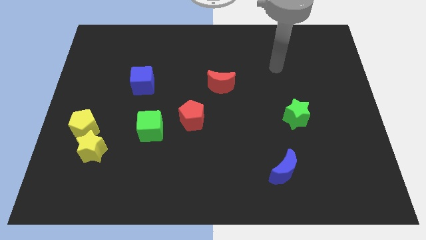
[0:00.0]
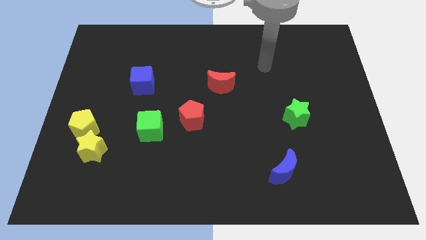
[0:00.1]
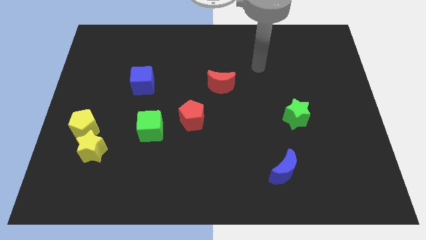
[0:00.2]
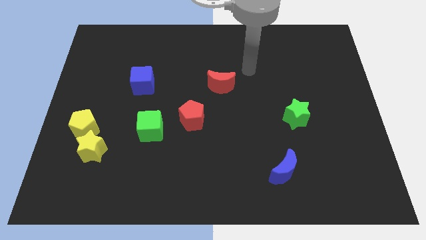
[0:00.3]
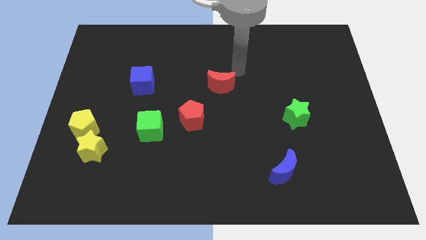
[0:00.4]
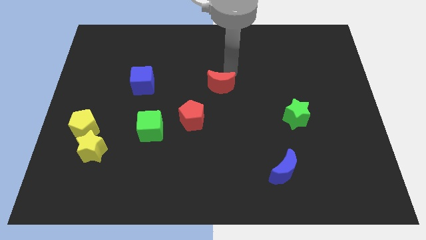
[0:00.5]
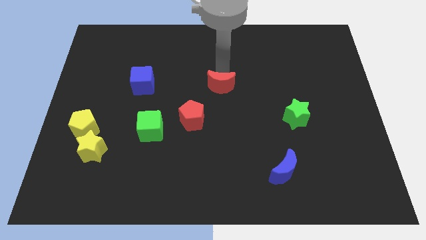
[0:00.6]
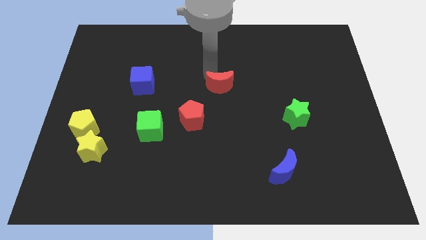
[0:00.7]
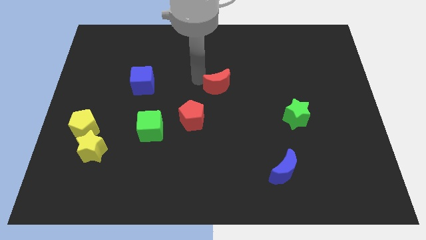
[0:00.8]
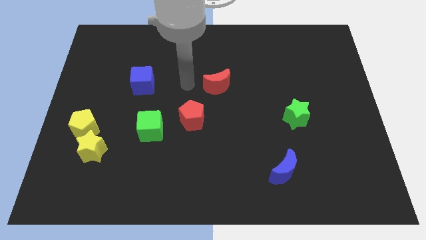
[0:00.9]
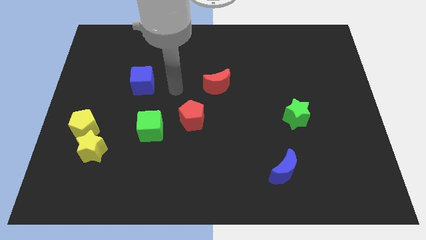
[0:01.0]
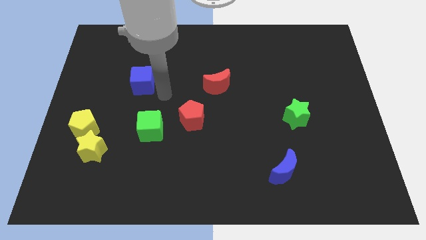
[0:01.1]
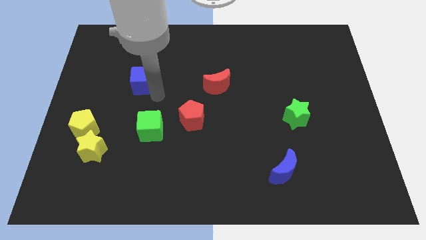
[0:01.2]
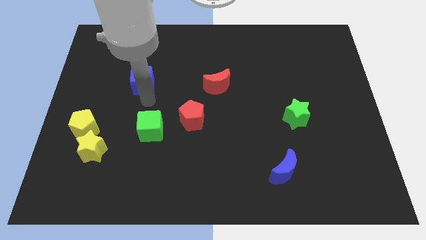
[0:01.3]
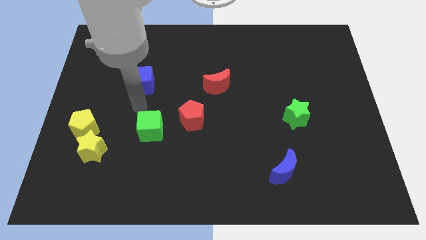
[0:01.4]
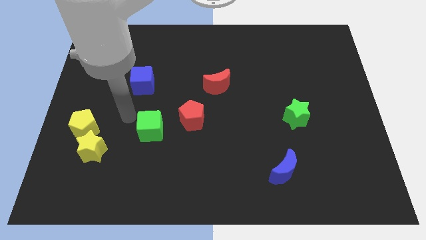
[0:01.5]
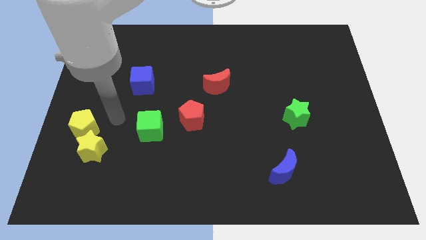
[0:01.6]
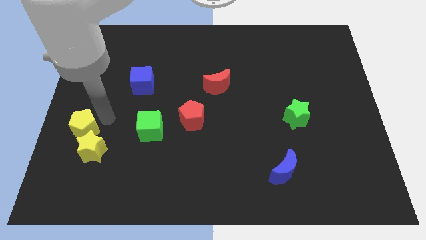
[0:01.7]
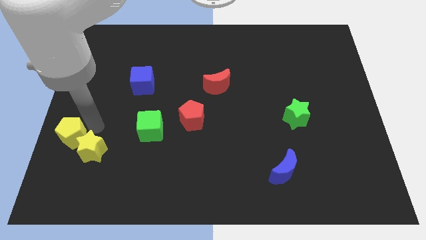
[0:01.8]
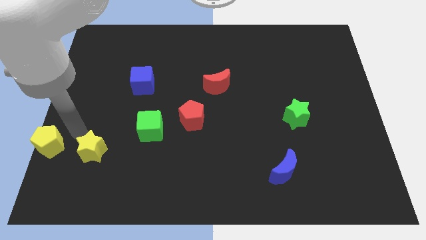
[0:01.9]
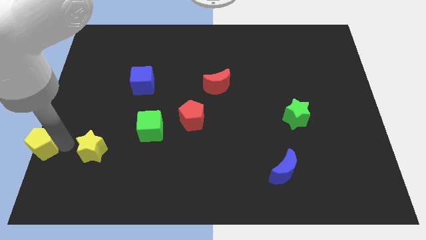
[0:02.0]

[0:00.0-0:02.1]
separate the yellow star from the yellow pentagon

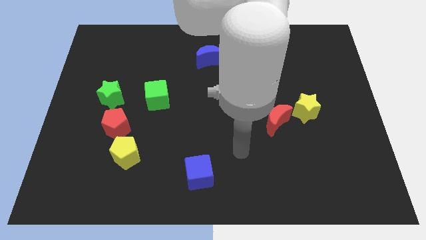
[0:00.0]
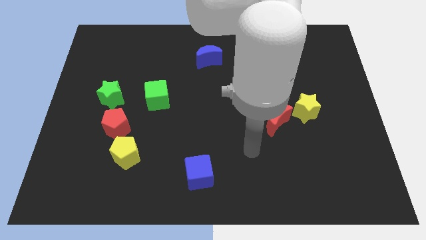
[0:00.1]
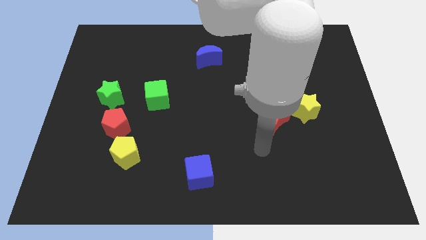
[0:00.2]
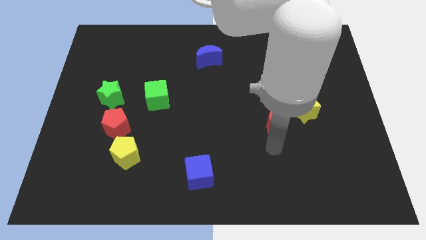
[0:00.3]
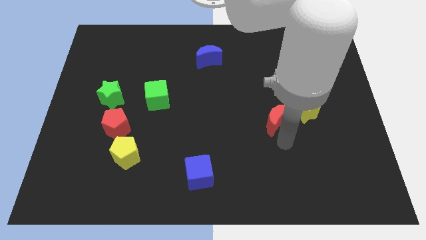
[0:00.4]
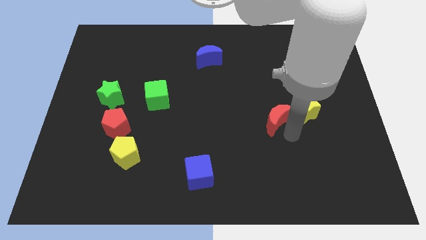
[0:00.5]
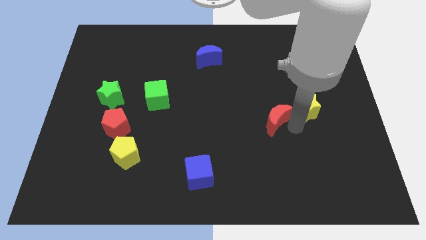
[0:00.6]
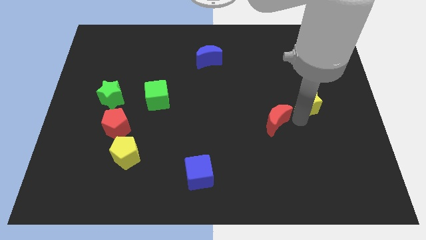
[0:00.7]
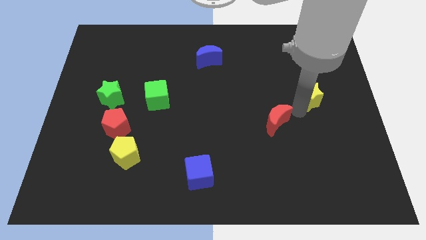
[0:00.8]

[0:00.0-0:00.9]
move the red moon away from the yellow star

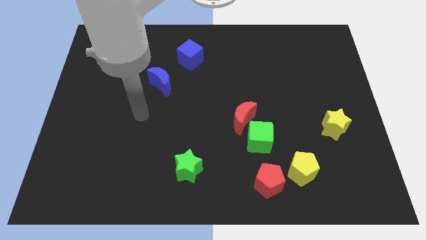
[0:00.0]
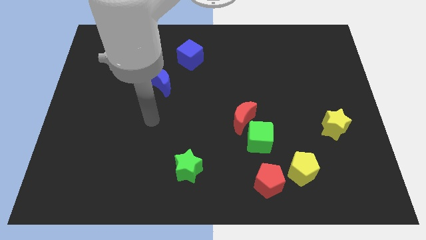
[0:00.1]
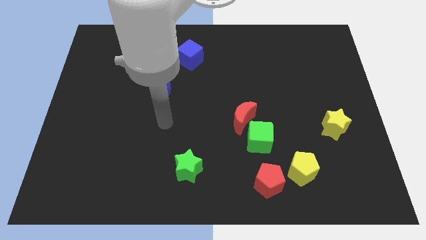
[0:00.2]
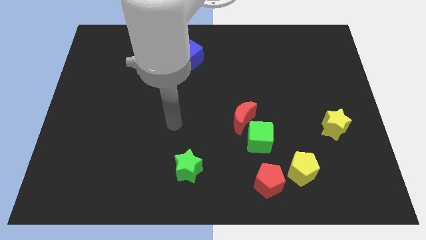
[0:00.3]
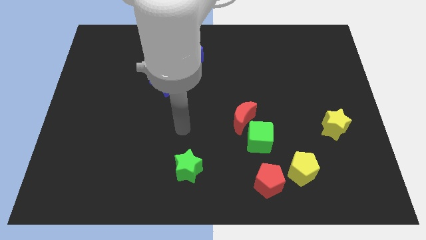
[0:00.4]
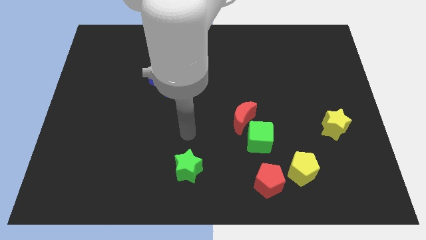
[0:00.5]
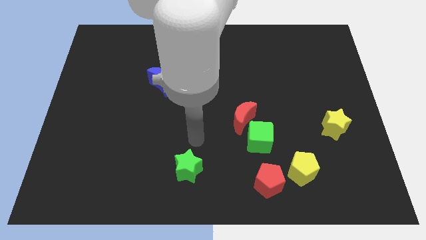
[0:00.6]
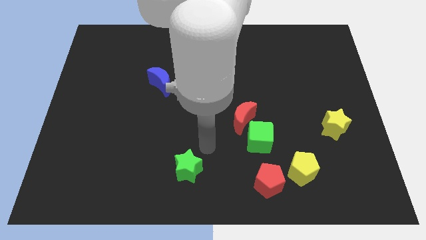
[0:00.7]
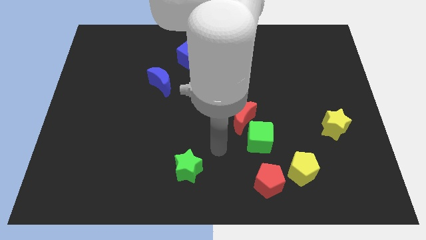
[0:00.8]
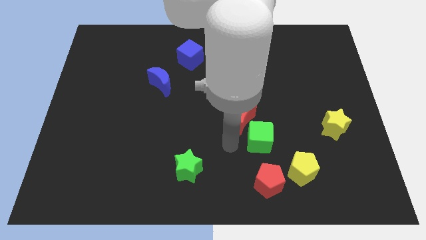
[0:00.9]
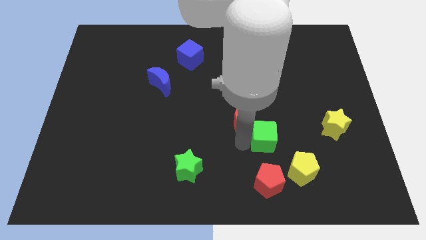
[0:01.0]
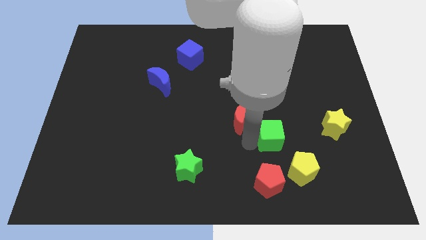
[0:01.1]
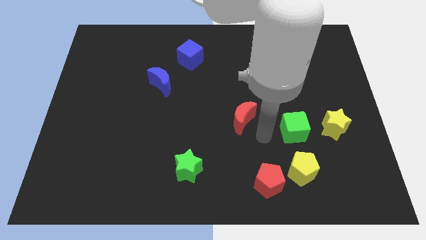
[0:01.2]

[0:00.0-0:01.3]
move the red moon away from the green cube

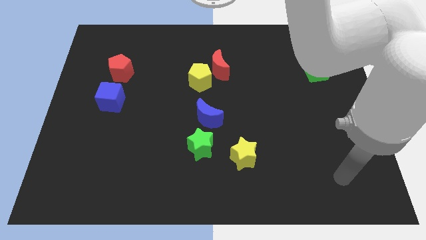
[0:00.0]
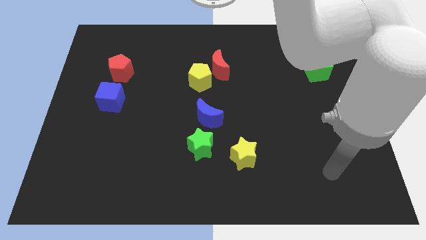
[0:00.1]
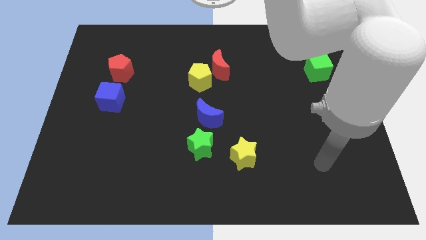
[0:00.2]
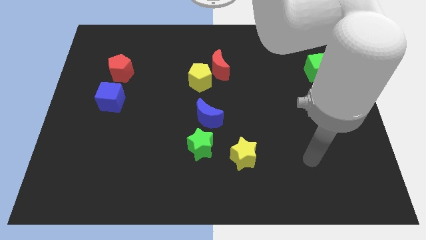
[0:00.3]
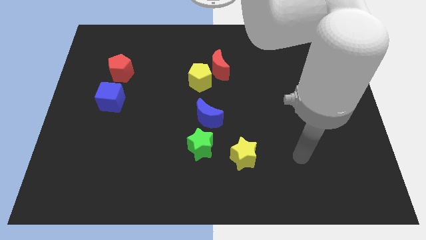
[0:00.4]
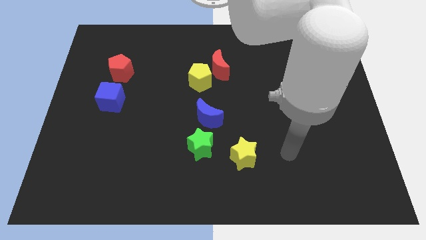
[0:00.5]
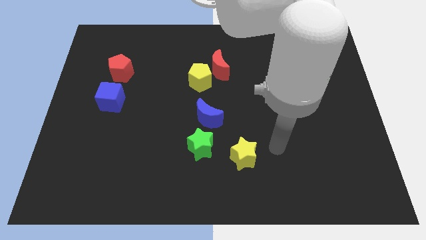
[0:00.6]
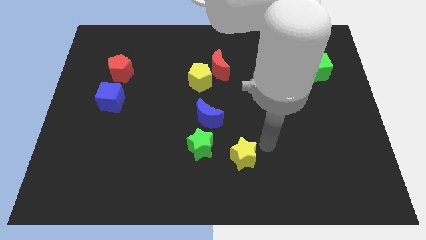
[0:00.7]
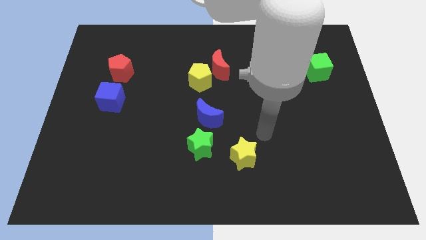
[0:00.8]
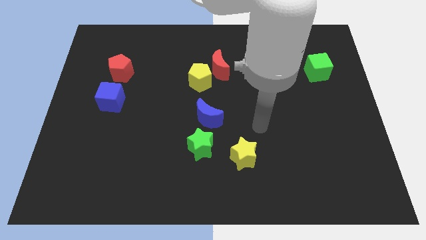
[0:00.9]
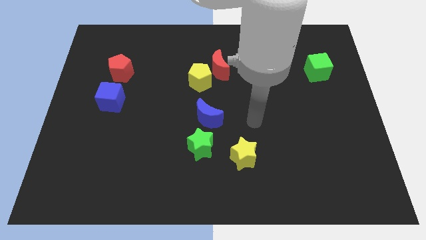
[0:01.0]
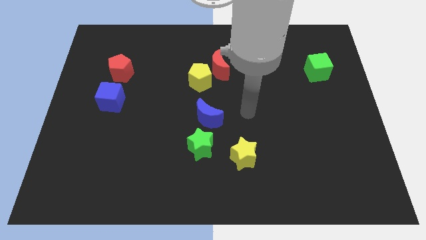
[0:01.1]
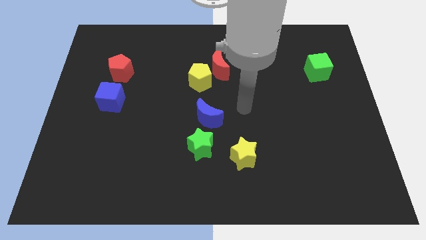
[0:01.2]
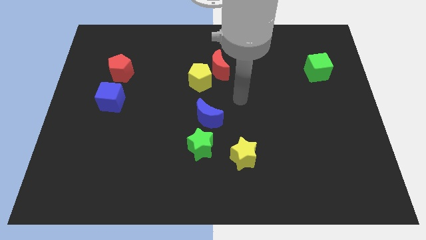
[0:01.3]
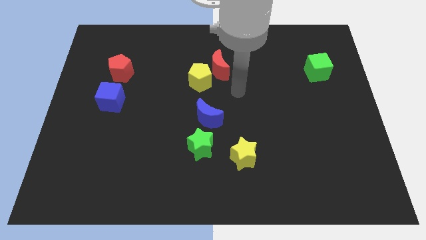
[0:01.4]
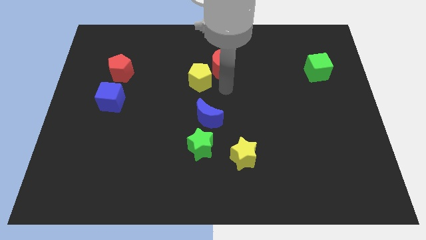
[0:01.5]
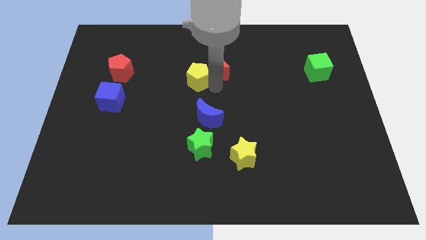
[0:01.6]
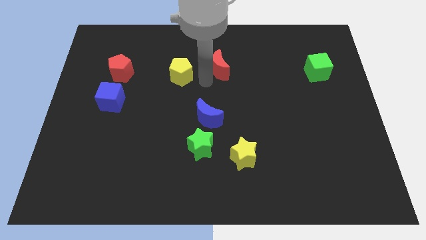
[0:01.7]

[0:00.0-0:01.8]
separate the red moon from the yellow pentagon

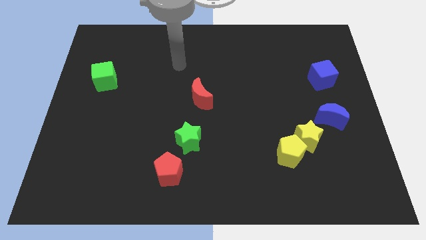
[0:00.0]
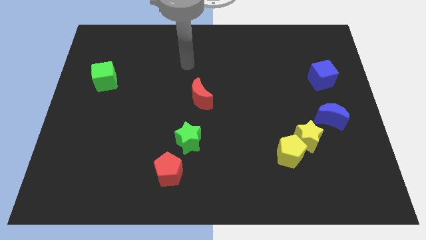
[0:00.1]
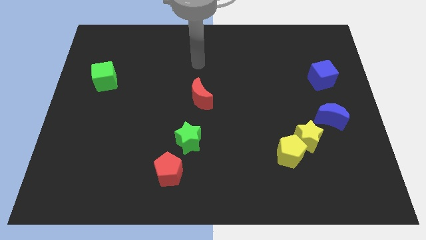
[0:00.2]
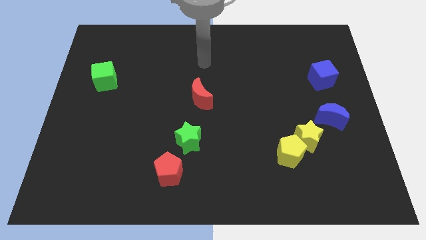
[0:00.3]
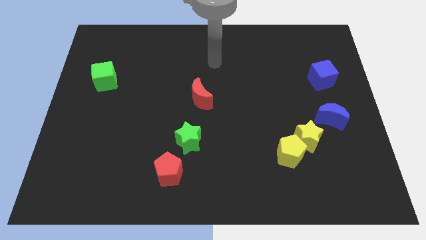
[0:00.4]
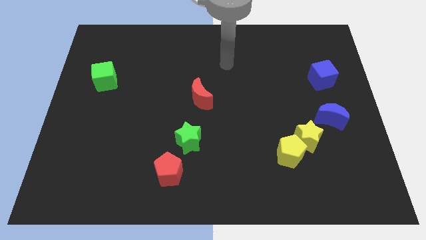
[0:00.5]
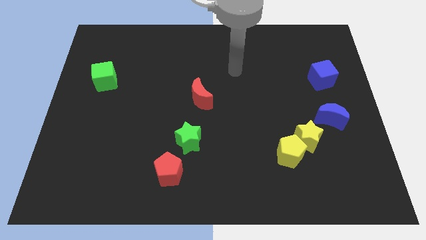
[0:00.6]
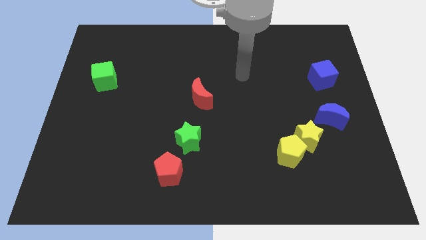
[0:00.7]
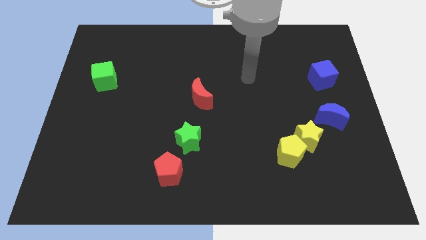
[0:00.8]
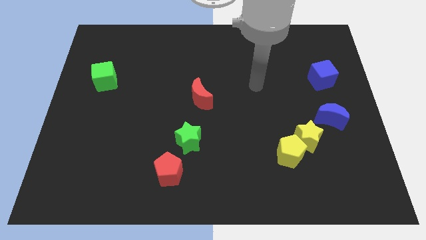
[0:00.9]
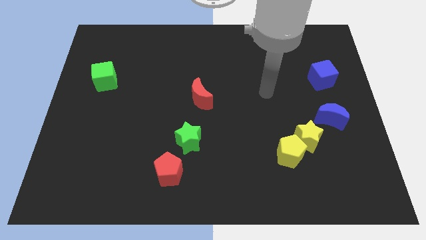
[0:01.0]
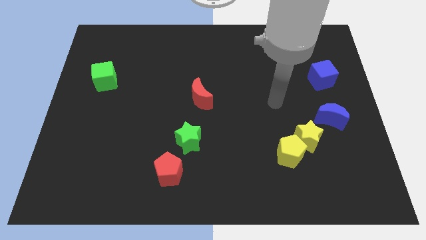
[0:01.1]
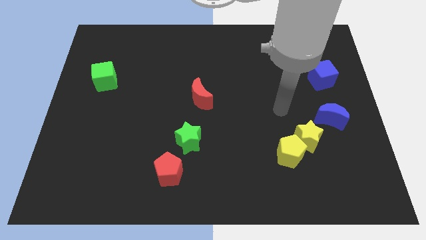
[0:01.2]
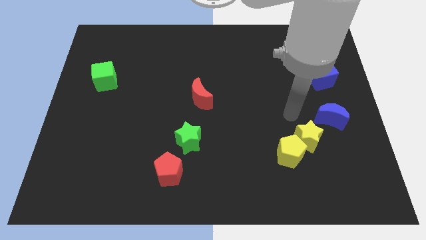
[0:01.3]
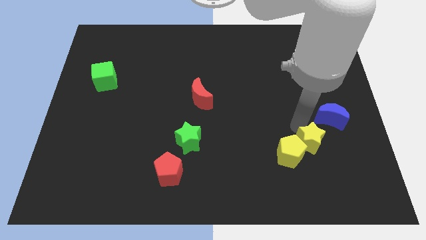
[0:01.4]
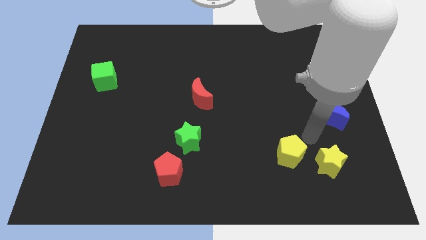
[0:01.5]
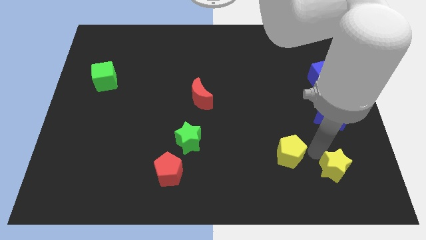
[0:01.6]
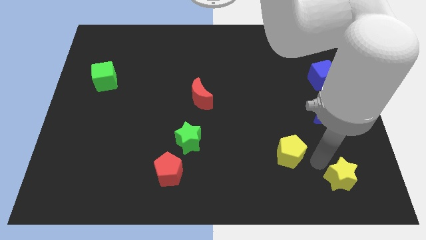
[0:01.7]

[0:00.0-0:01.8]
separate the yellow pentagon from the yellow star

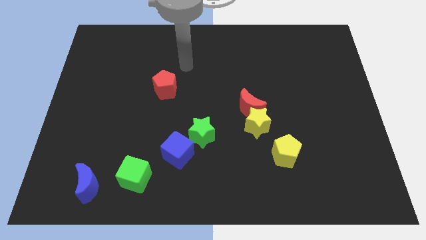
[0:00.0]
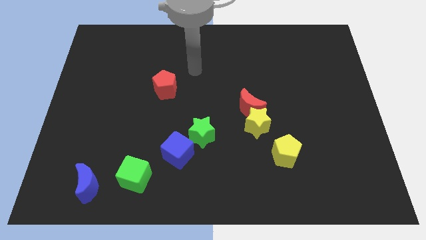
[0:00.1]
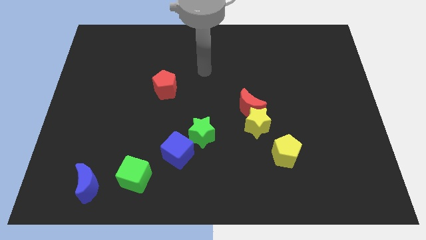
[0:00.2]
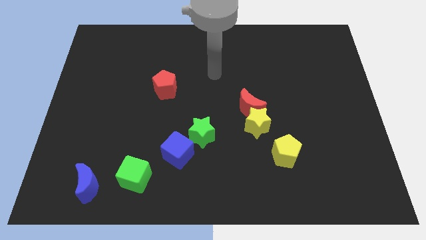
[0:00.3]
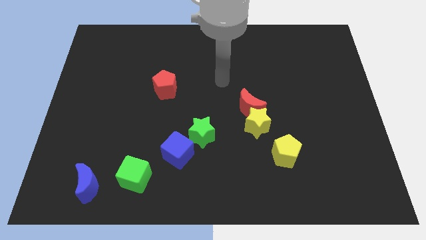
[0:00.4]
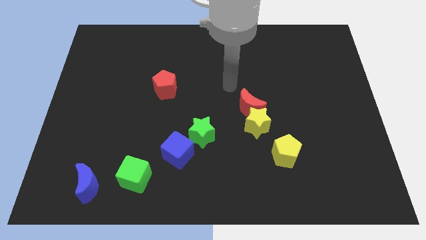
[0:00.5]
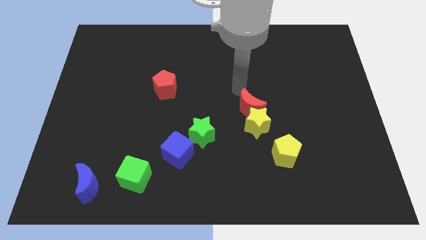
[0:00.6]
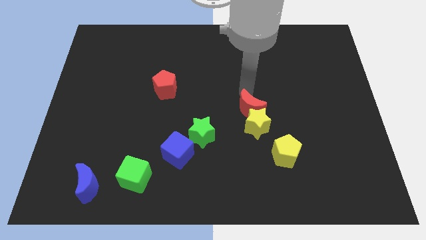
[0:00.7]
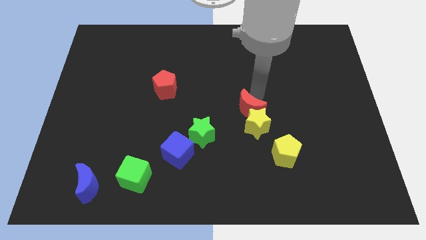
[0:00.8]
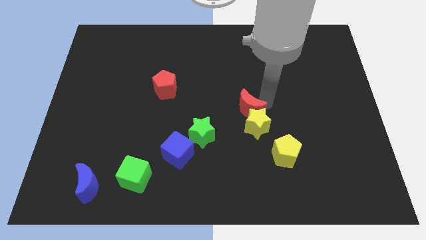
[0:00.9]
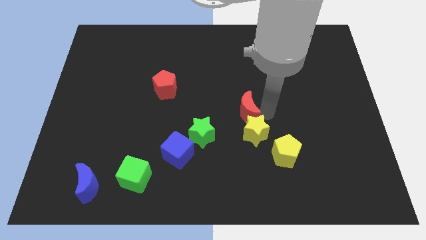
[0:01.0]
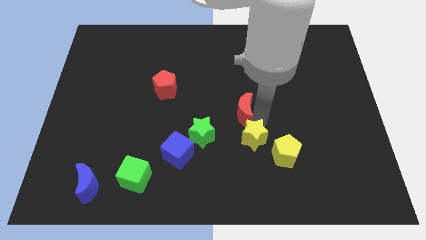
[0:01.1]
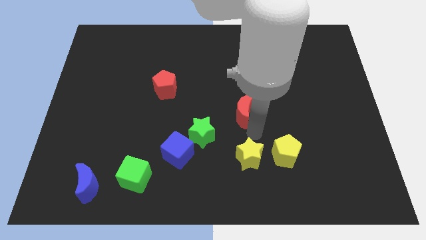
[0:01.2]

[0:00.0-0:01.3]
separate the red moon from the yellow star

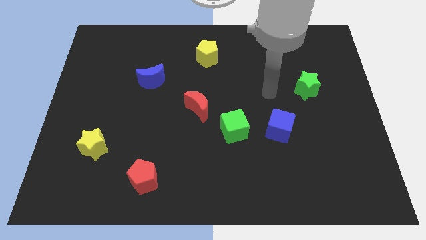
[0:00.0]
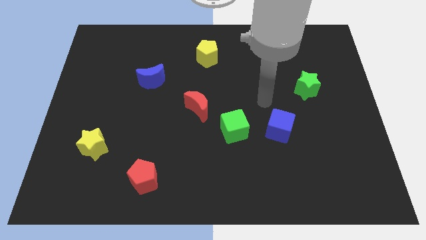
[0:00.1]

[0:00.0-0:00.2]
pull the blue cube apart from the green cube
